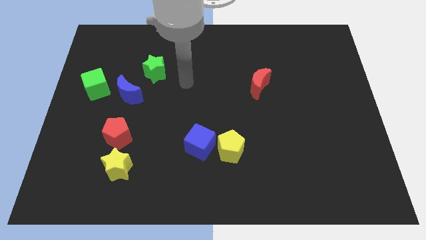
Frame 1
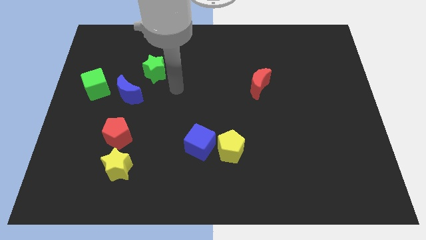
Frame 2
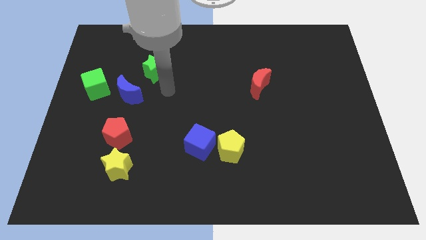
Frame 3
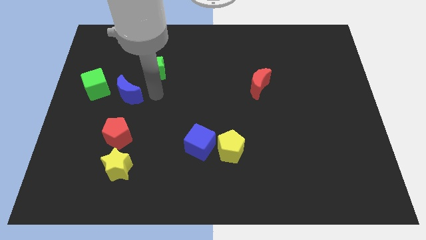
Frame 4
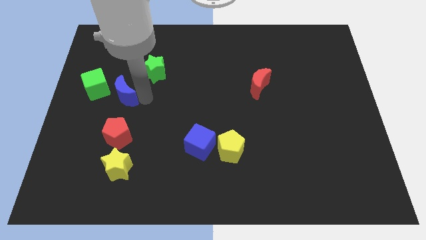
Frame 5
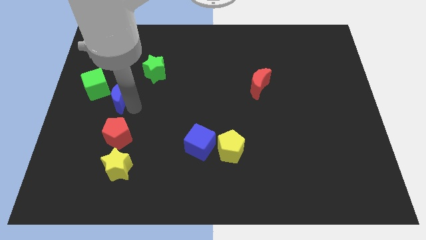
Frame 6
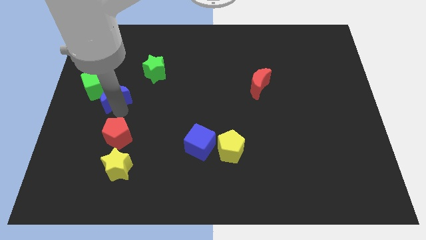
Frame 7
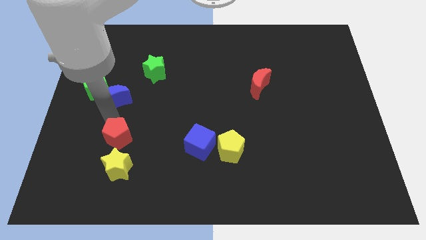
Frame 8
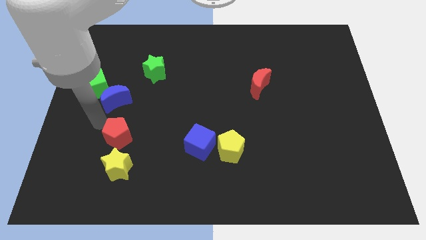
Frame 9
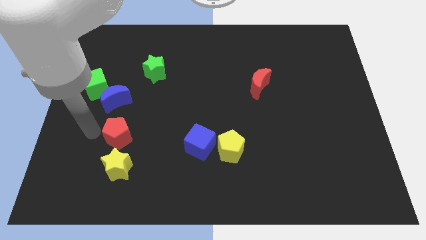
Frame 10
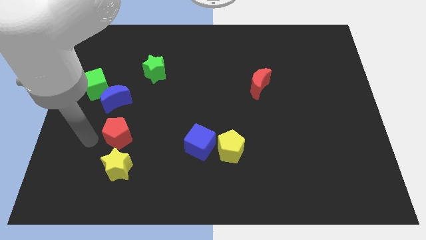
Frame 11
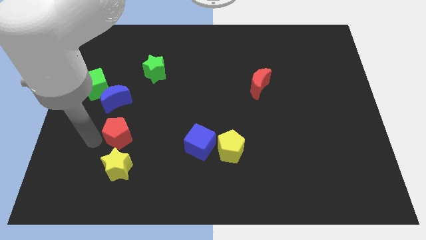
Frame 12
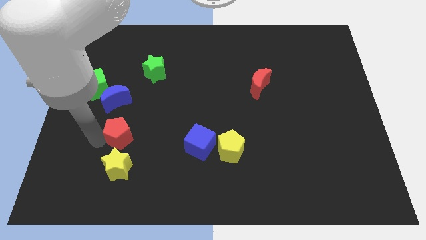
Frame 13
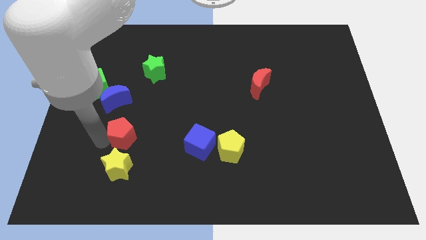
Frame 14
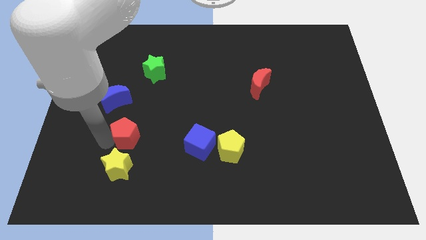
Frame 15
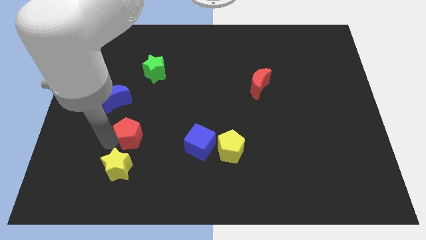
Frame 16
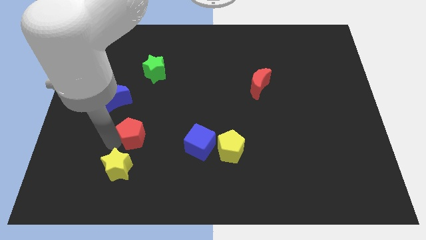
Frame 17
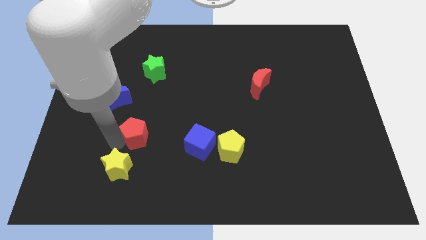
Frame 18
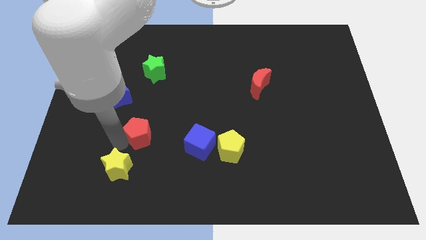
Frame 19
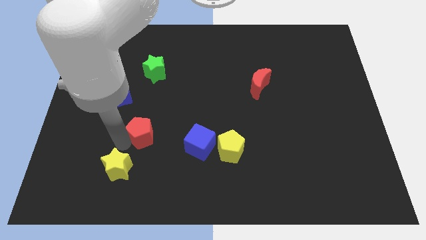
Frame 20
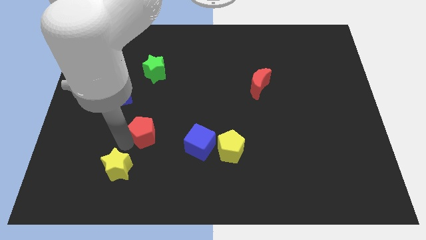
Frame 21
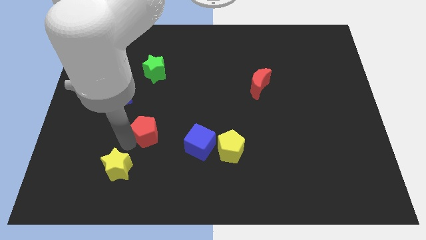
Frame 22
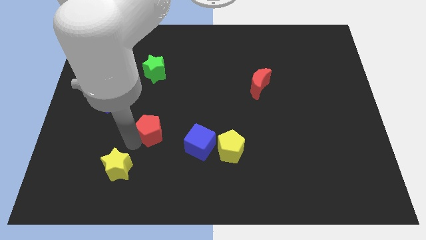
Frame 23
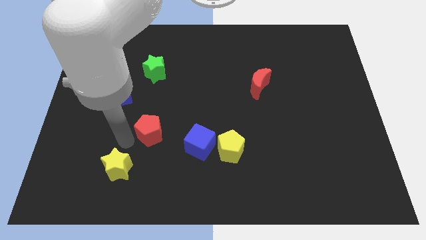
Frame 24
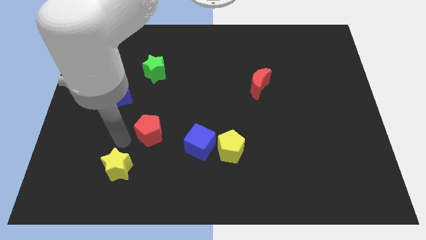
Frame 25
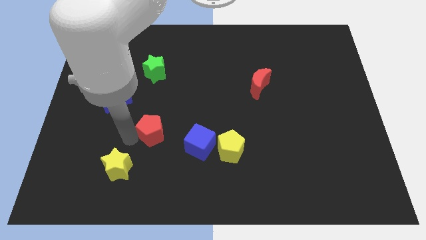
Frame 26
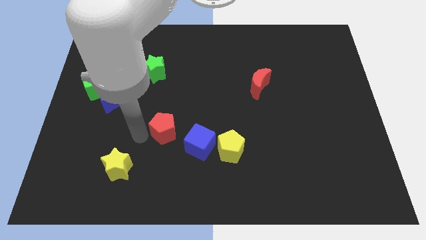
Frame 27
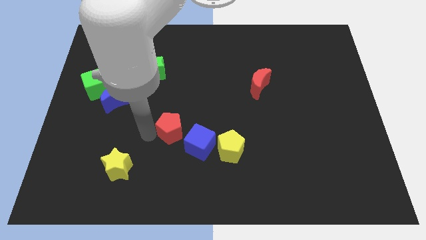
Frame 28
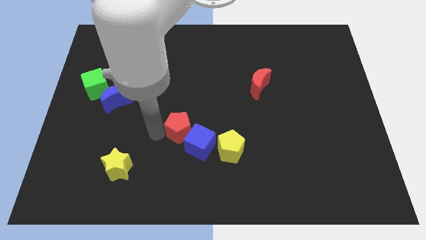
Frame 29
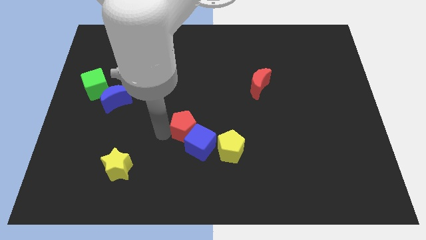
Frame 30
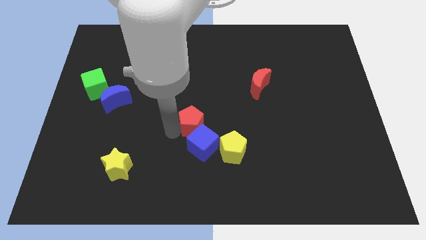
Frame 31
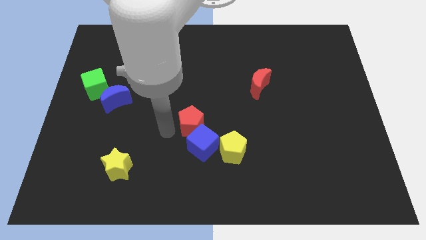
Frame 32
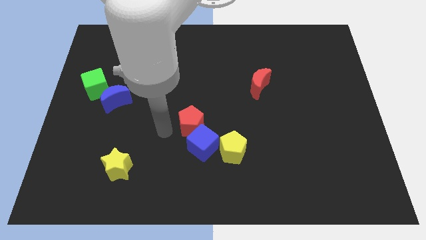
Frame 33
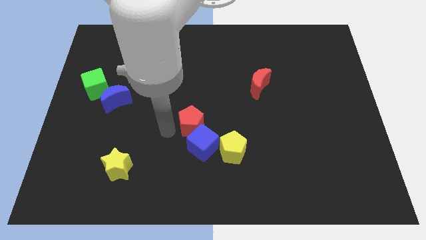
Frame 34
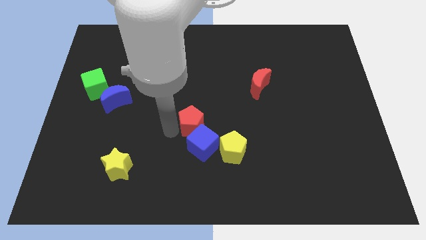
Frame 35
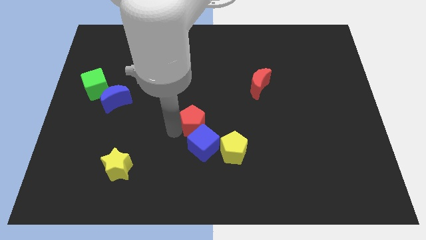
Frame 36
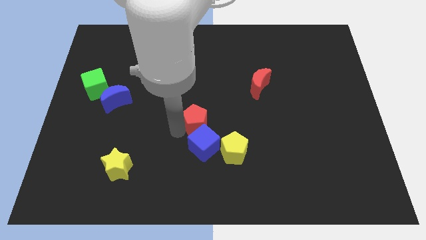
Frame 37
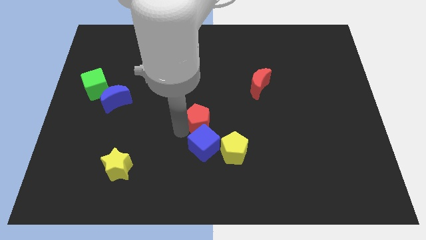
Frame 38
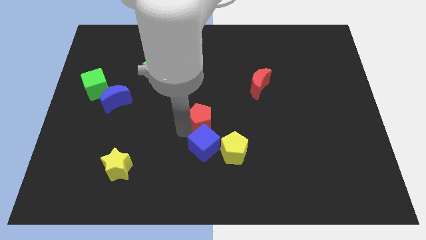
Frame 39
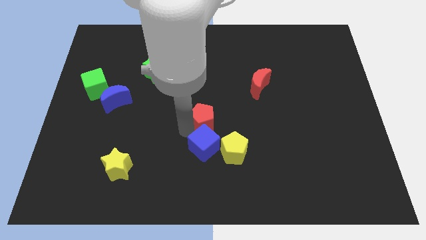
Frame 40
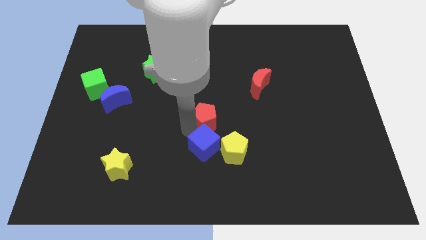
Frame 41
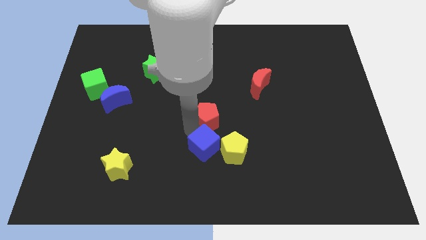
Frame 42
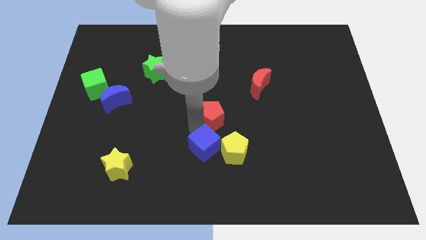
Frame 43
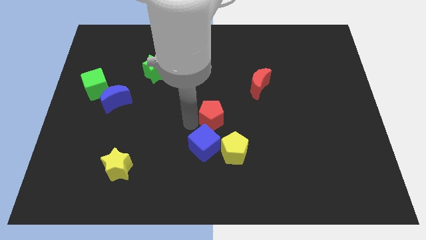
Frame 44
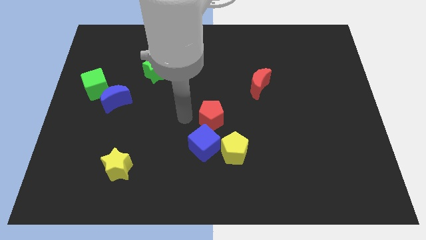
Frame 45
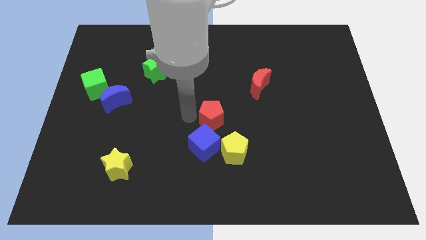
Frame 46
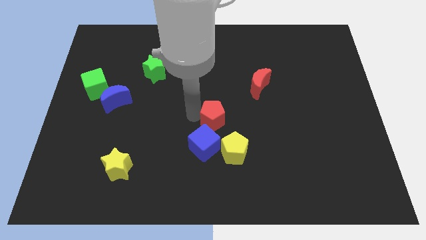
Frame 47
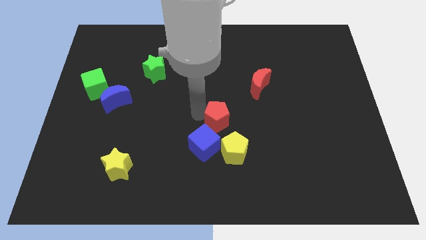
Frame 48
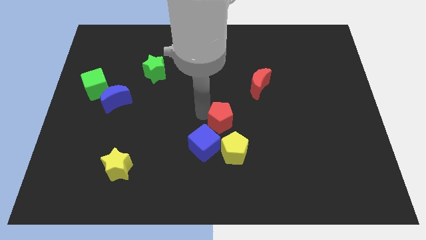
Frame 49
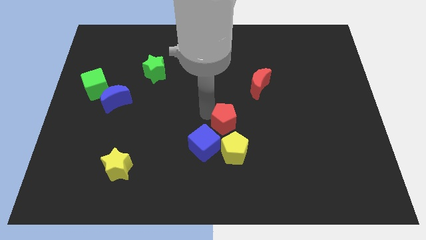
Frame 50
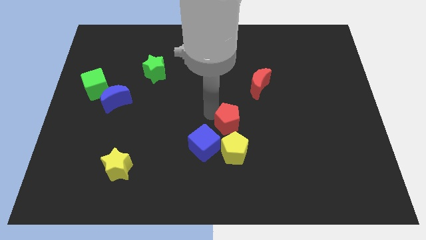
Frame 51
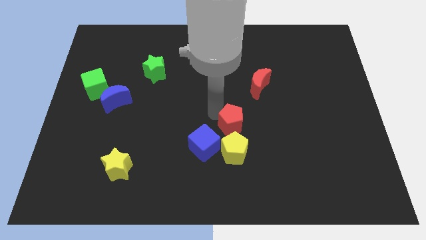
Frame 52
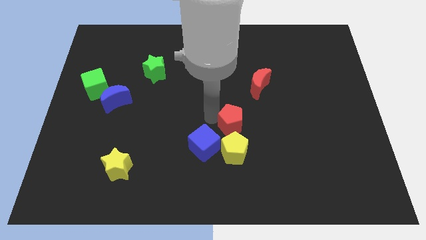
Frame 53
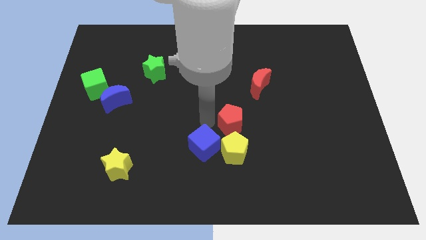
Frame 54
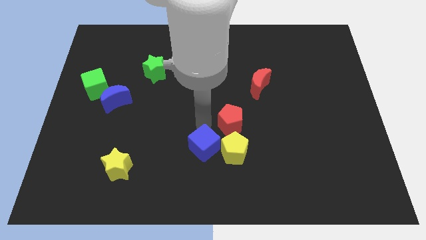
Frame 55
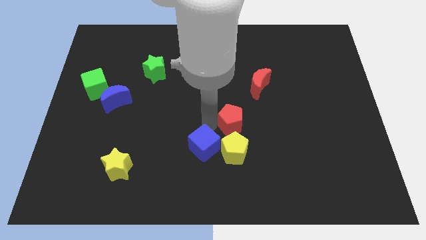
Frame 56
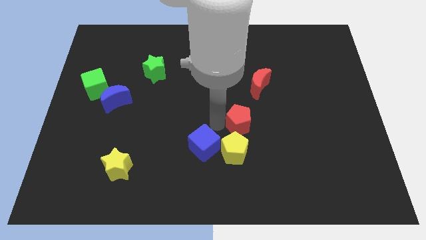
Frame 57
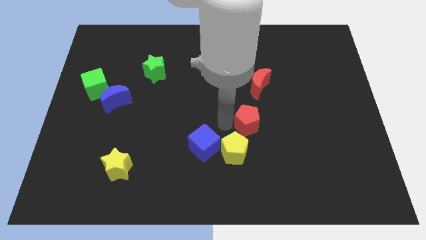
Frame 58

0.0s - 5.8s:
slide the red pentagon below the red moon

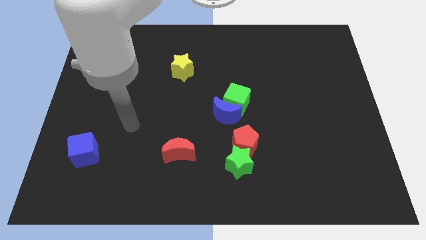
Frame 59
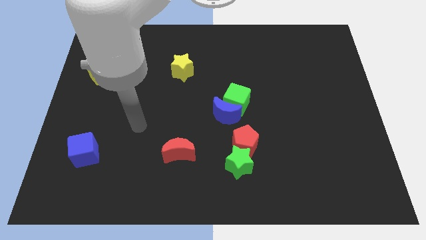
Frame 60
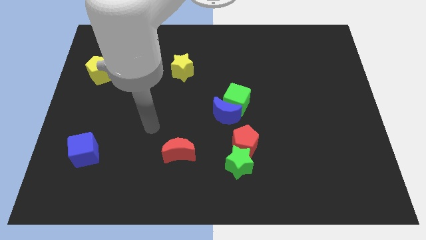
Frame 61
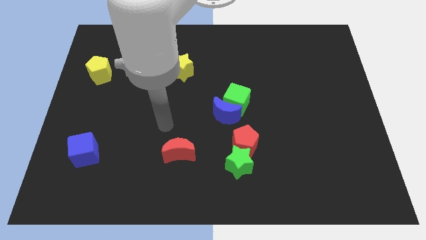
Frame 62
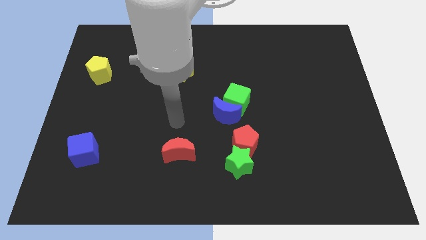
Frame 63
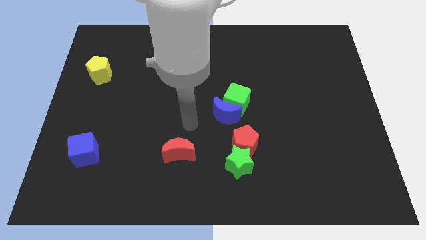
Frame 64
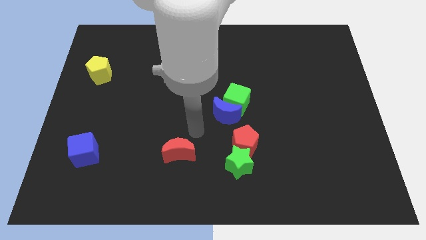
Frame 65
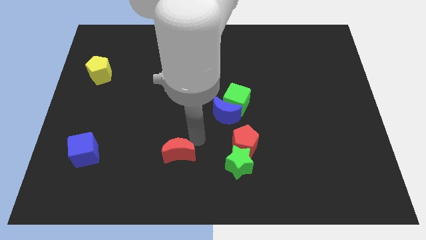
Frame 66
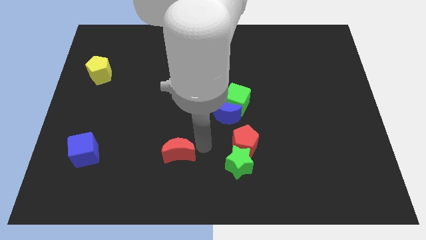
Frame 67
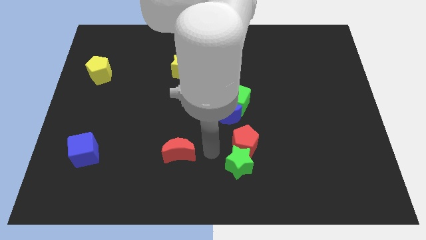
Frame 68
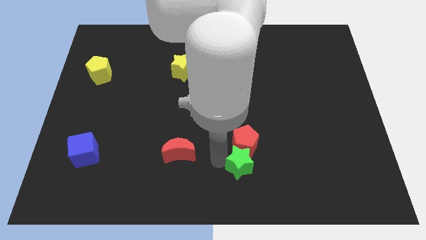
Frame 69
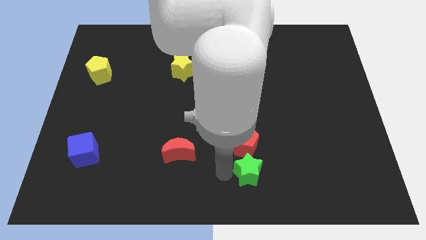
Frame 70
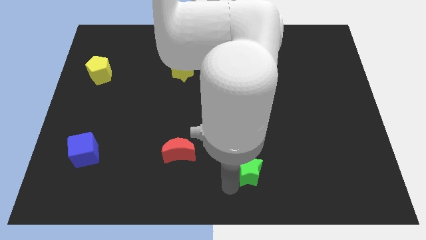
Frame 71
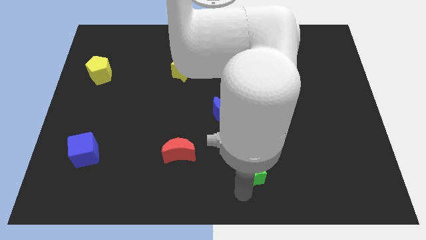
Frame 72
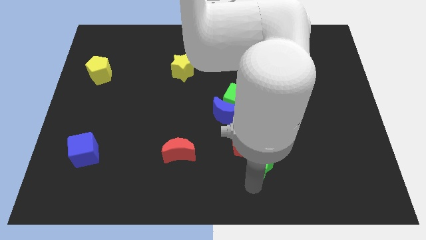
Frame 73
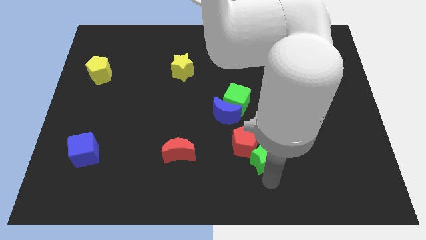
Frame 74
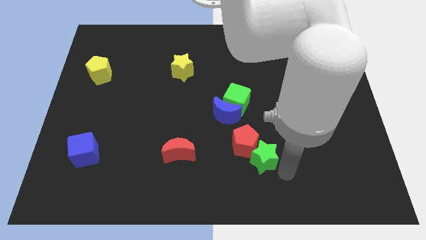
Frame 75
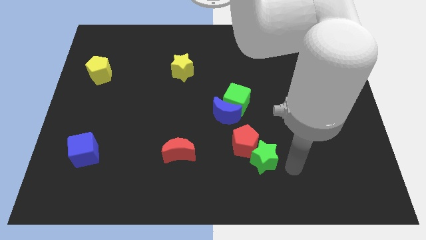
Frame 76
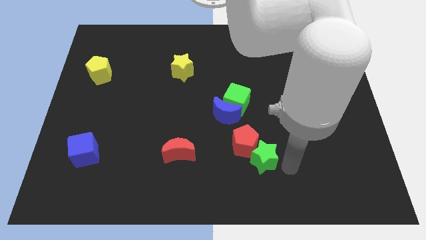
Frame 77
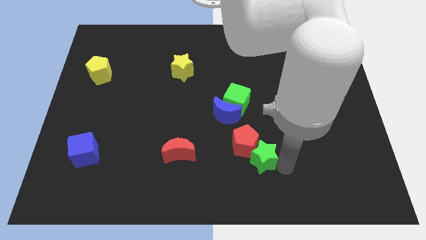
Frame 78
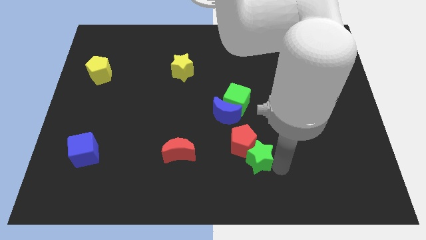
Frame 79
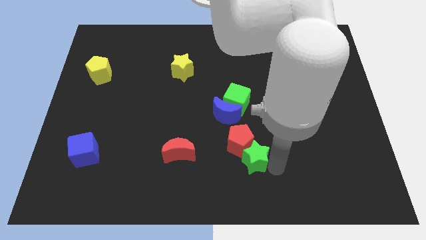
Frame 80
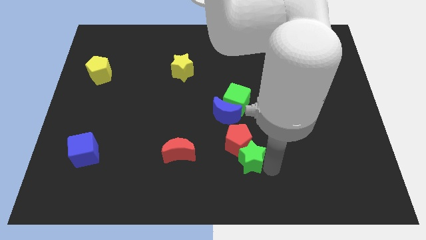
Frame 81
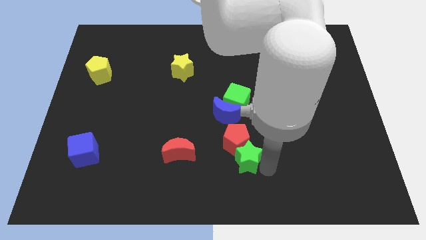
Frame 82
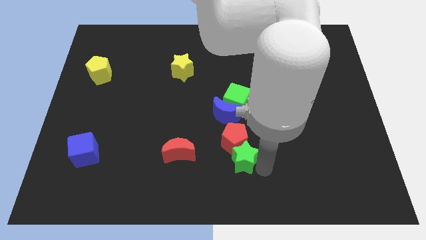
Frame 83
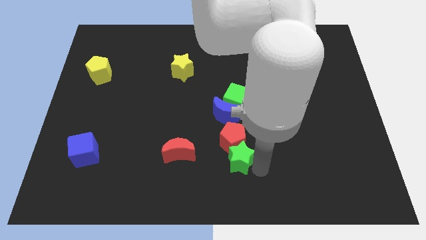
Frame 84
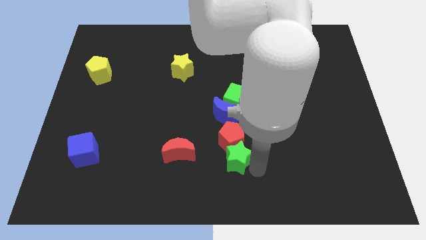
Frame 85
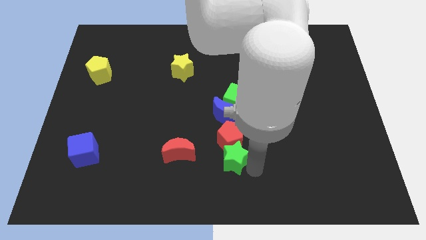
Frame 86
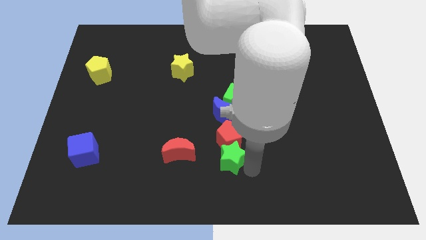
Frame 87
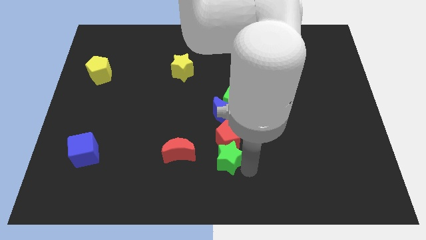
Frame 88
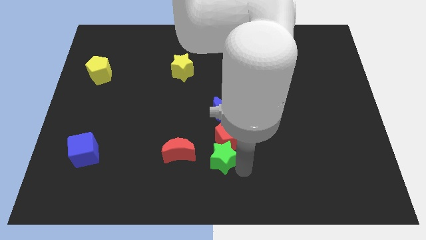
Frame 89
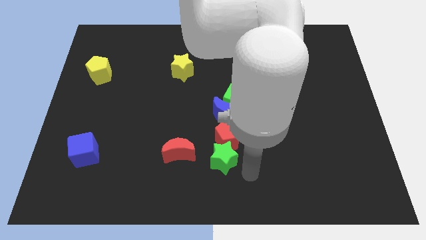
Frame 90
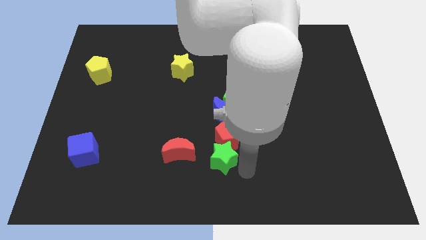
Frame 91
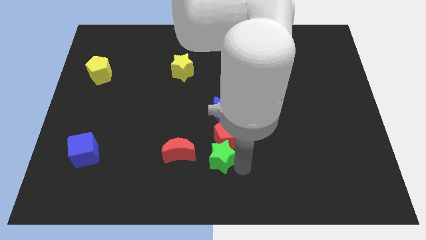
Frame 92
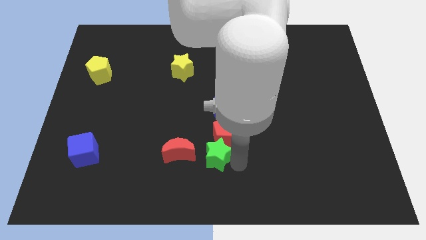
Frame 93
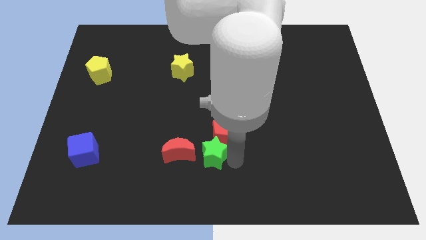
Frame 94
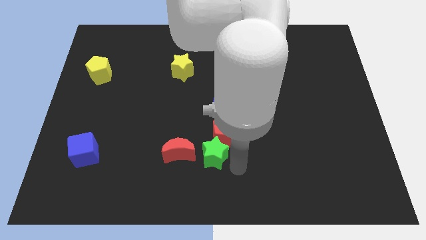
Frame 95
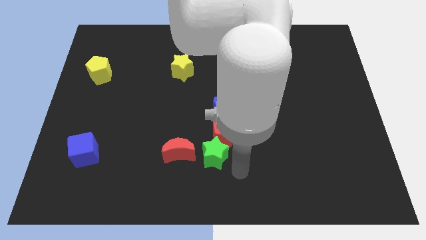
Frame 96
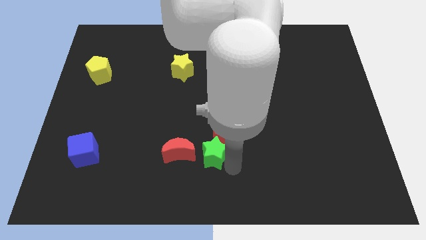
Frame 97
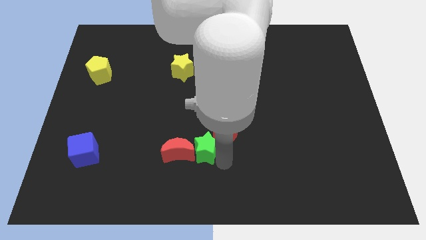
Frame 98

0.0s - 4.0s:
put the green star to the left side of the red pentagon
